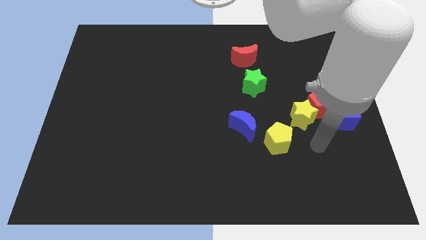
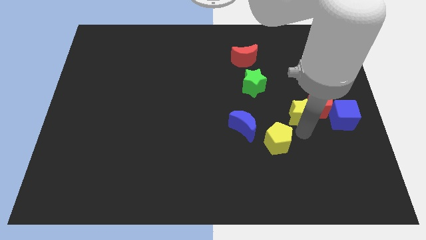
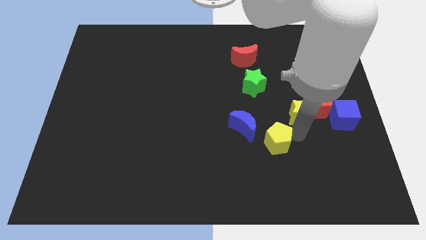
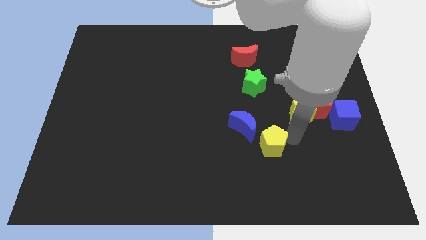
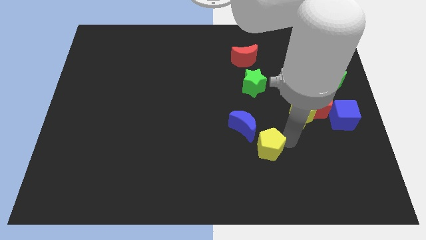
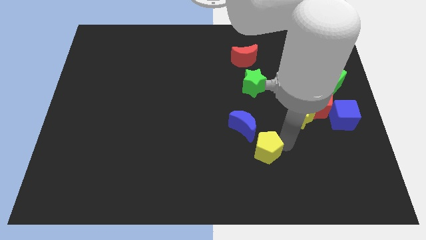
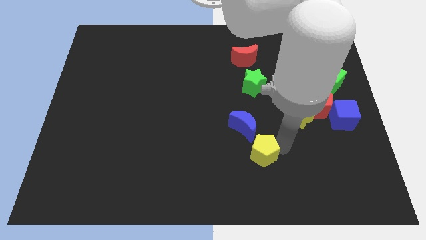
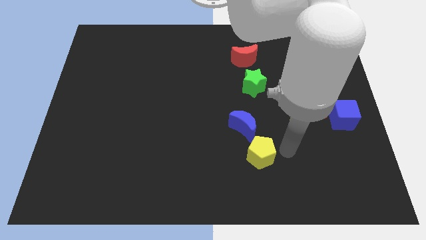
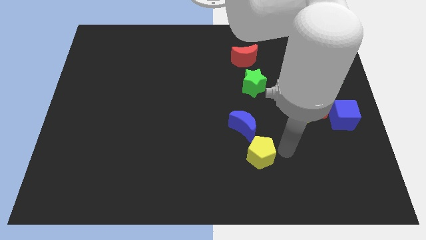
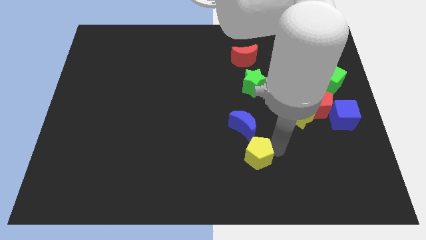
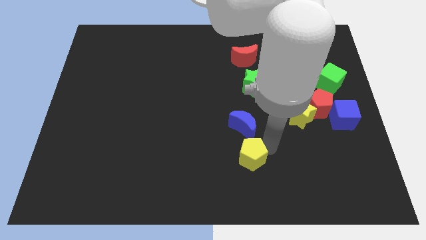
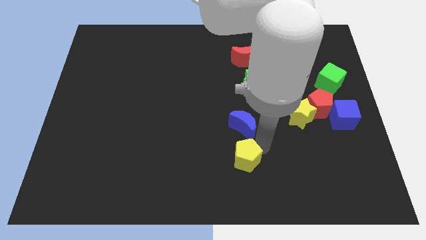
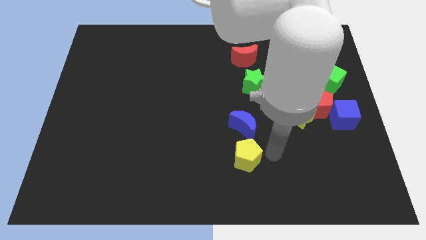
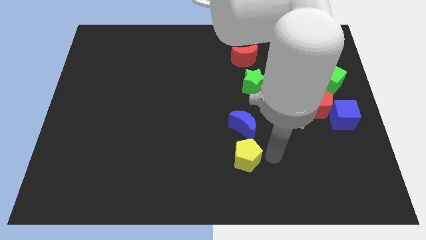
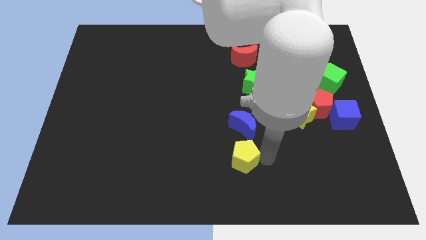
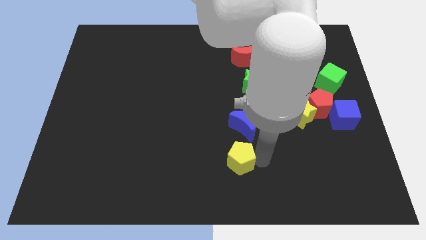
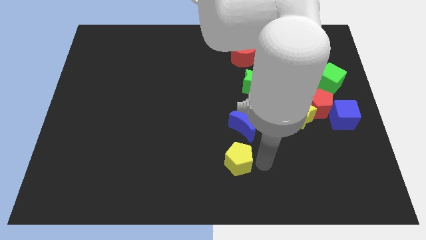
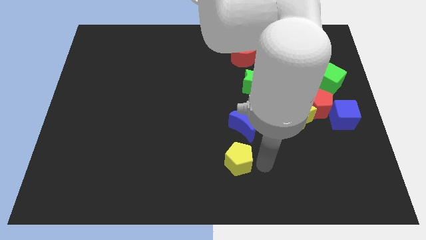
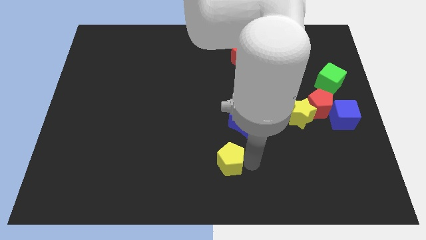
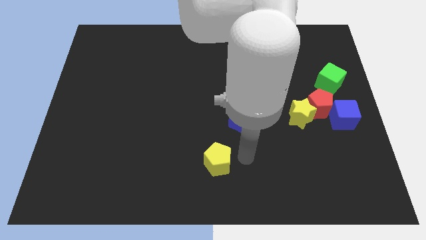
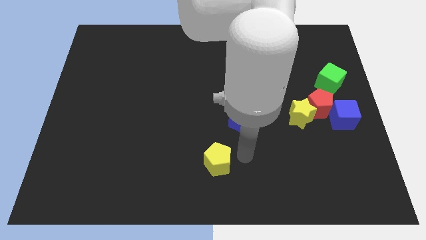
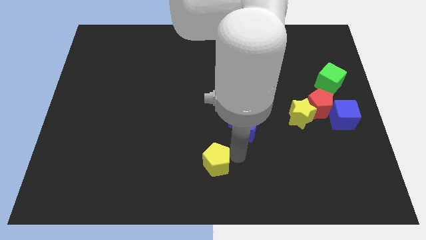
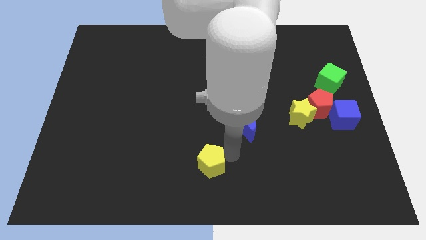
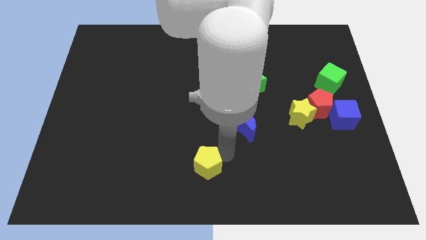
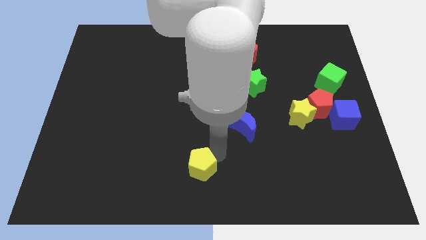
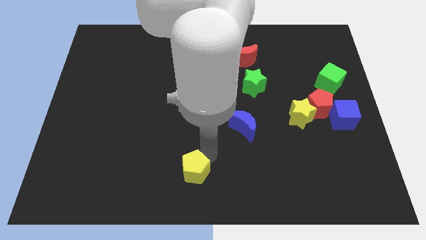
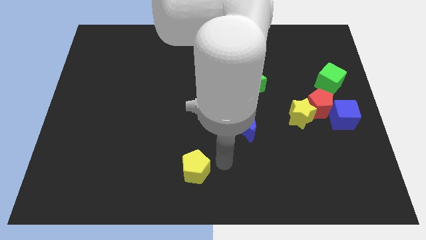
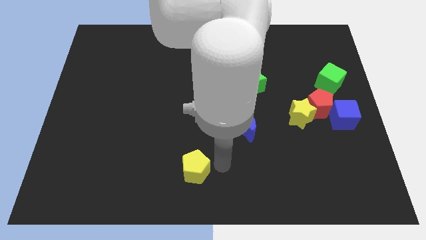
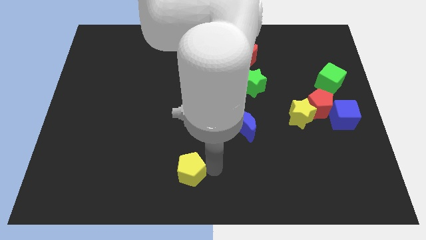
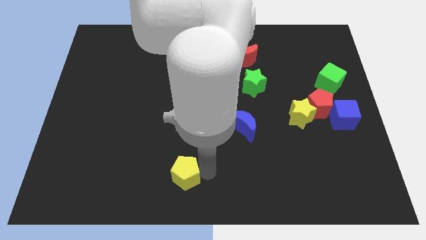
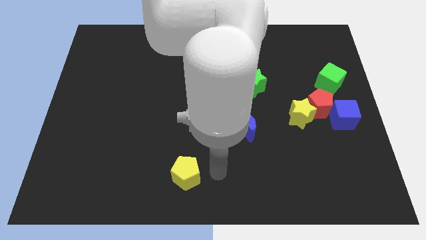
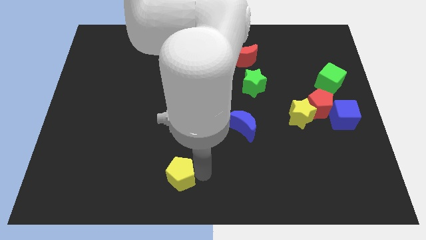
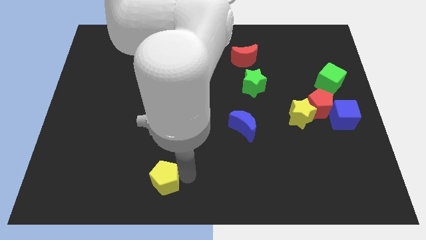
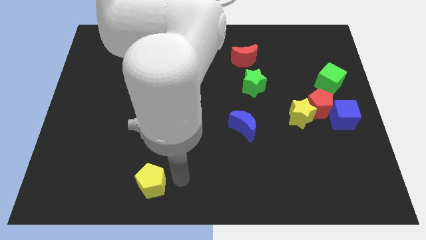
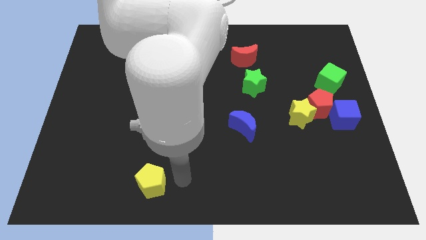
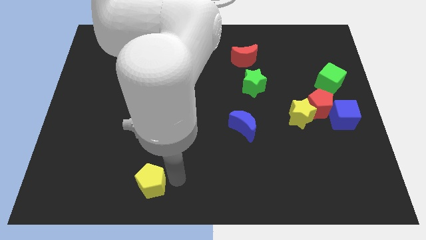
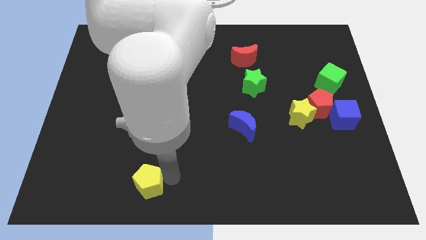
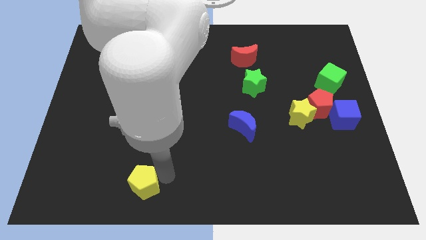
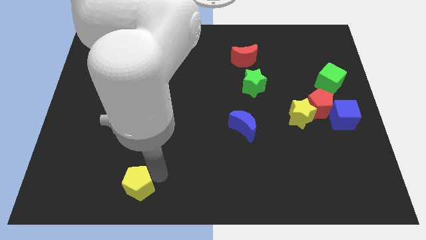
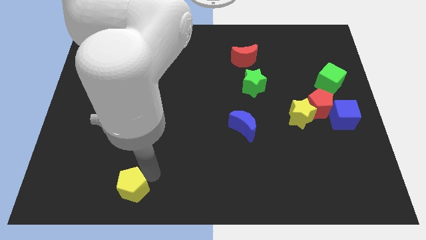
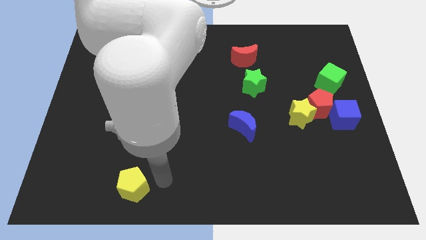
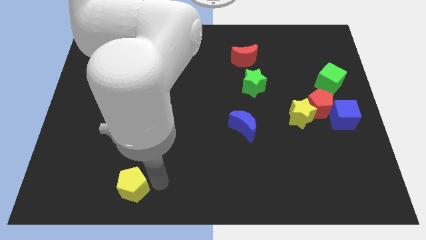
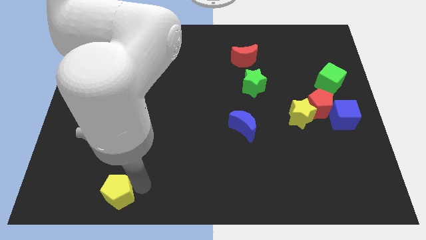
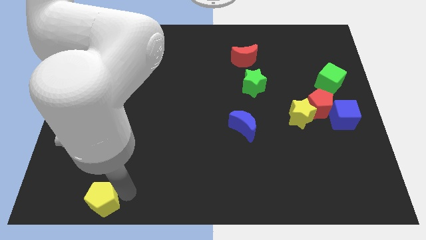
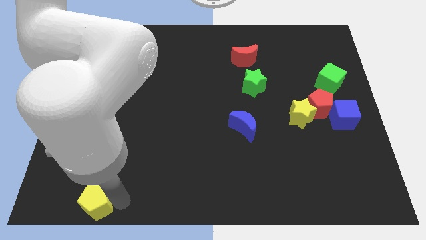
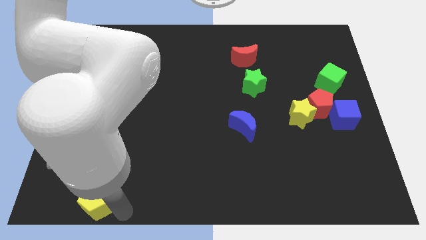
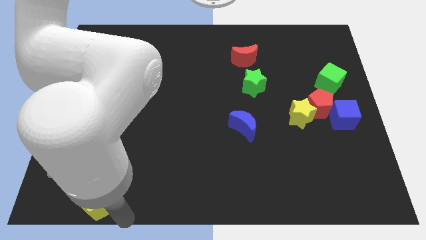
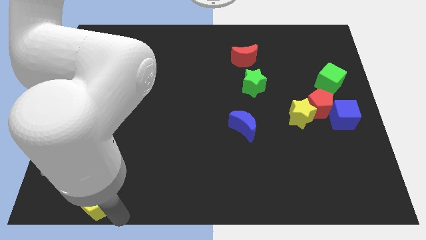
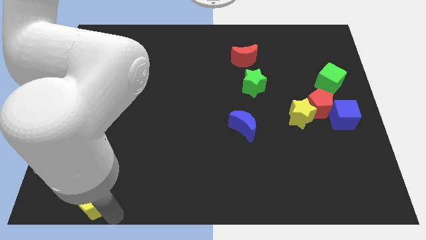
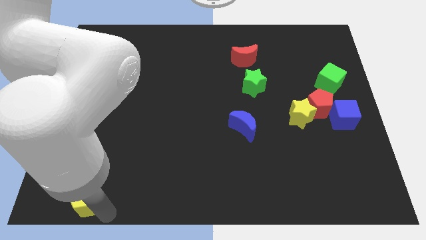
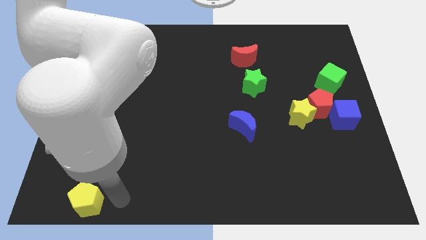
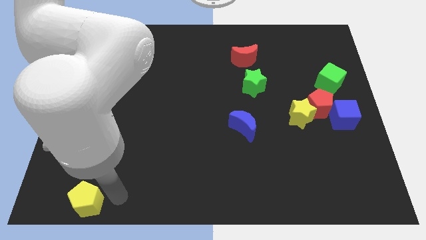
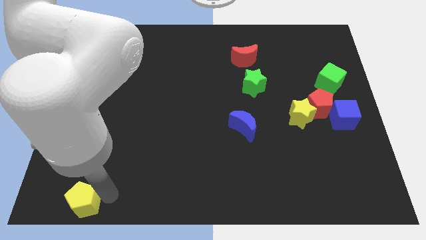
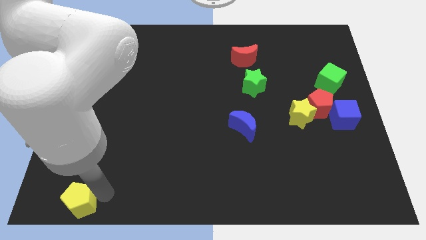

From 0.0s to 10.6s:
push the yellow pentagon to the bottom left of the board

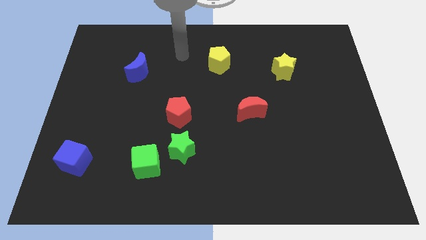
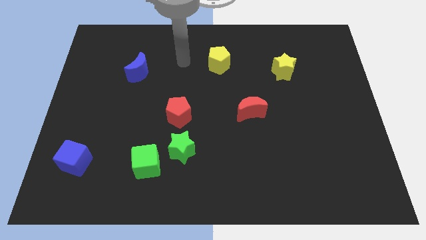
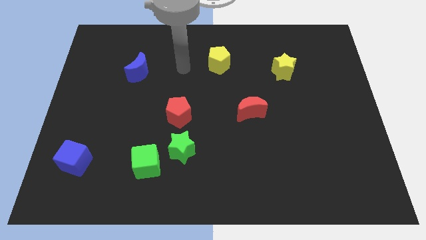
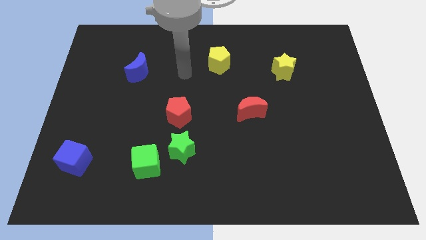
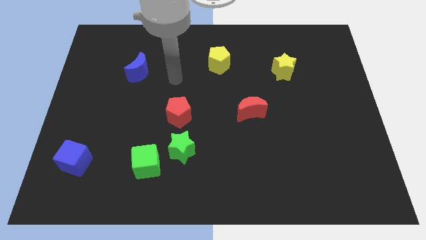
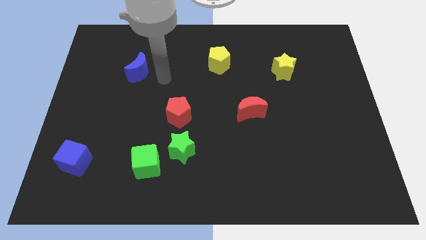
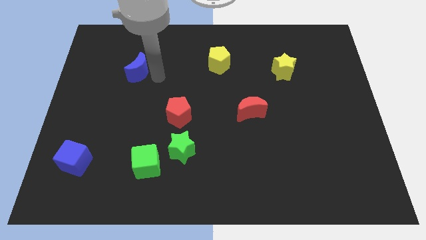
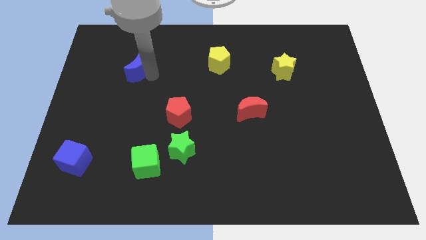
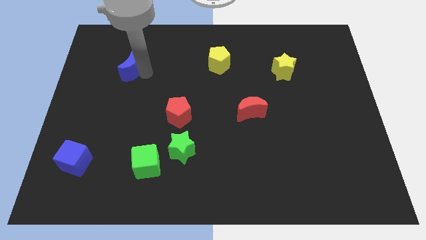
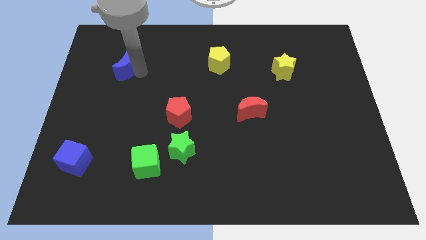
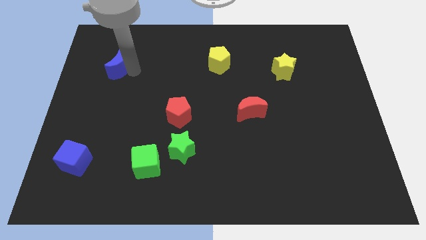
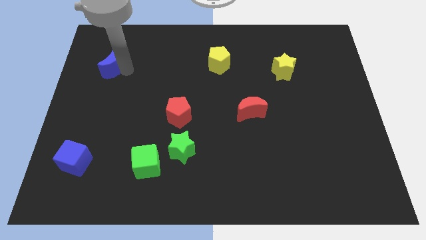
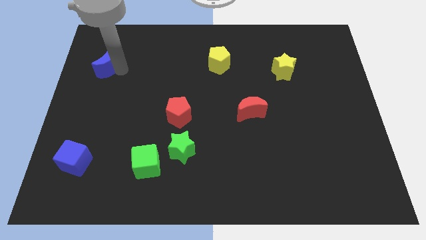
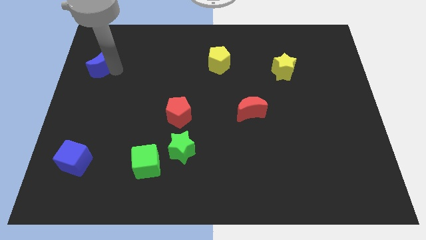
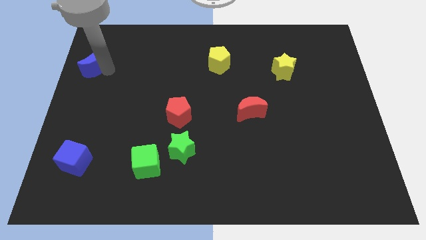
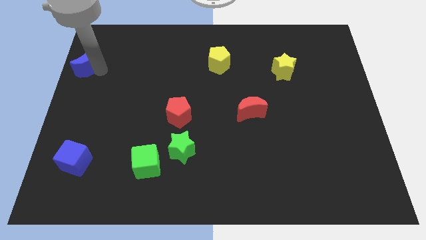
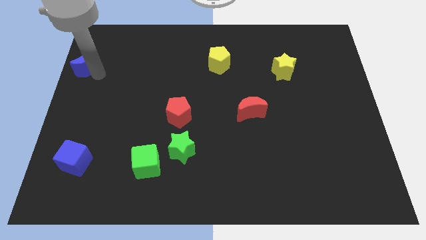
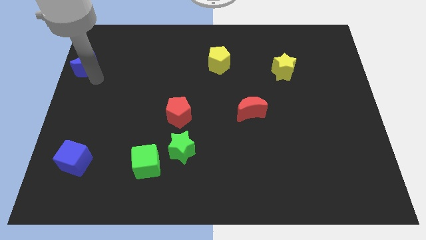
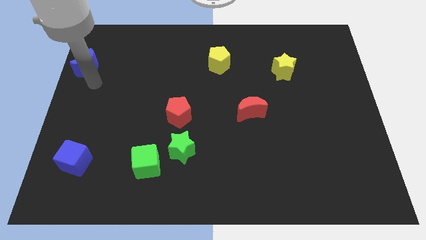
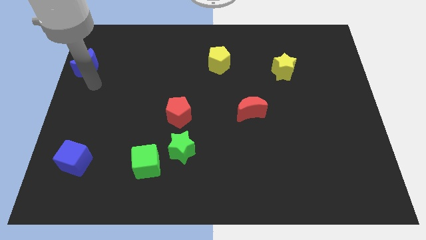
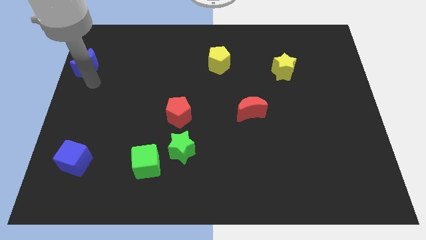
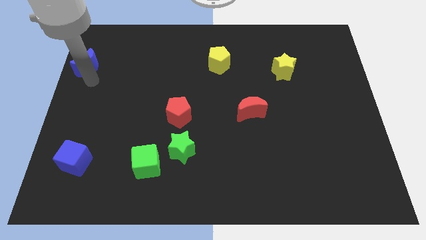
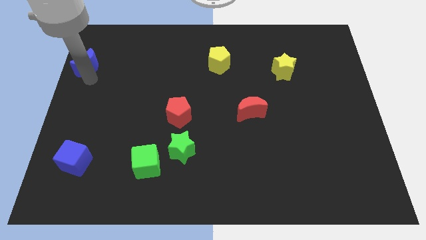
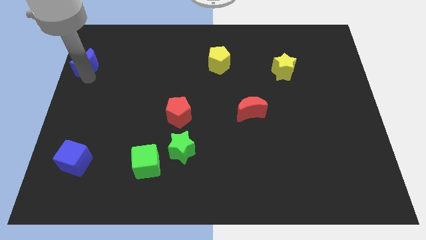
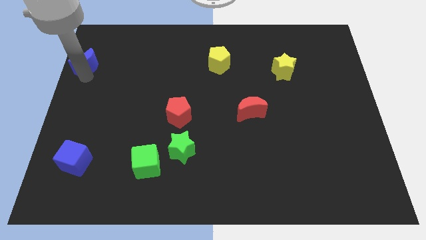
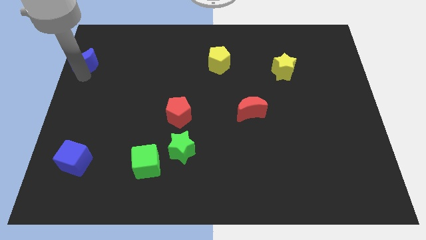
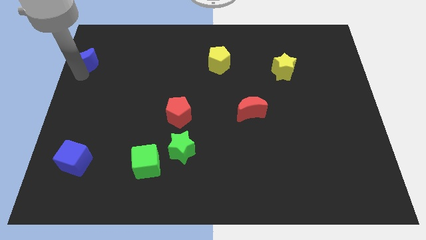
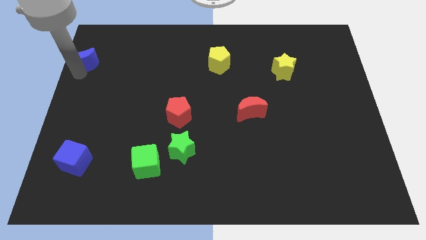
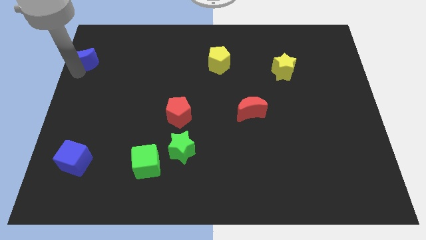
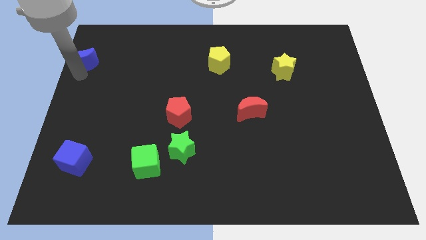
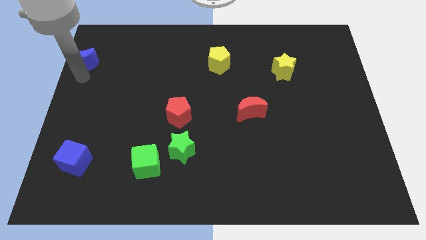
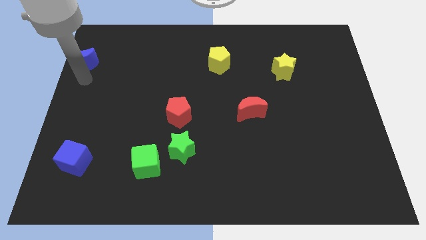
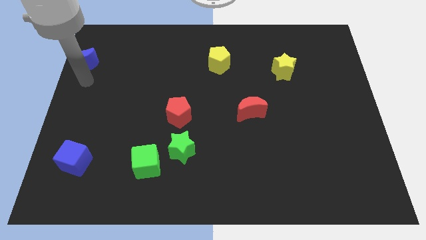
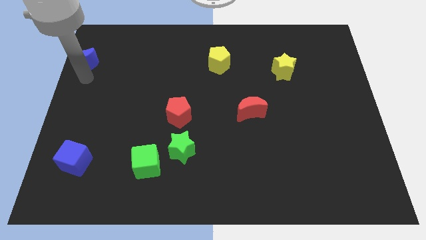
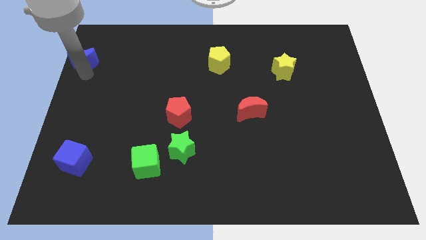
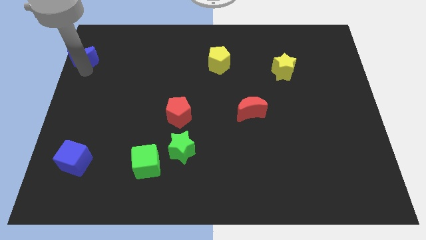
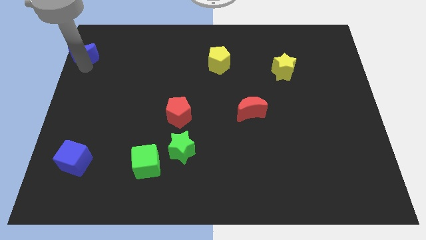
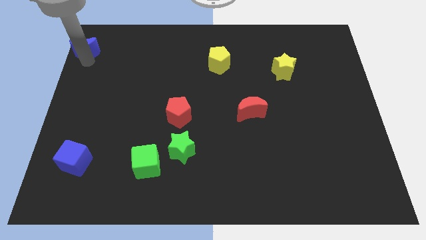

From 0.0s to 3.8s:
put the blue moon to the top left of the board
